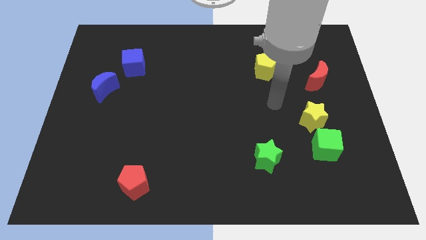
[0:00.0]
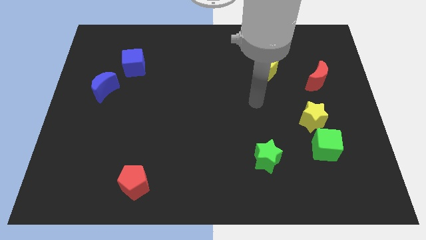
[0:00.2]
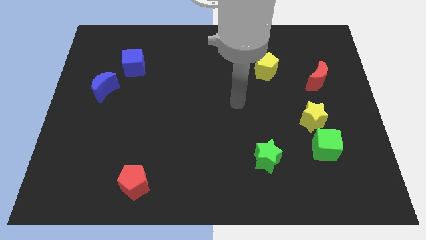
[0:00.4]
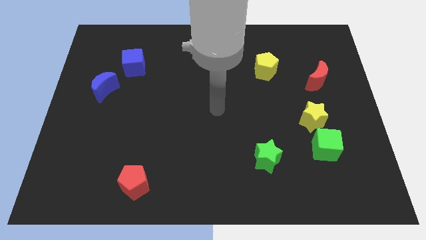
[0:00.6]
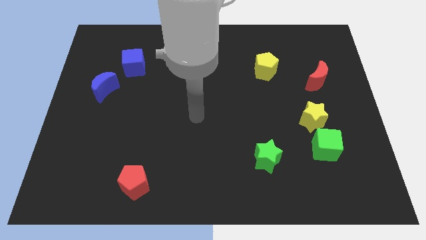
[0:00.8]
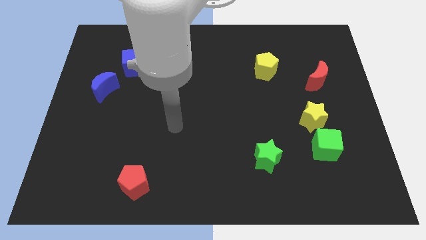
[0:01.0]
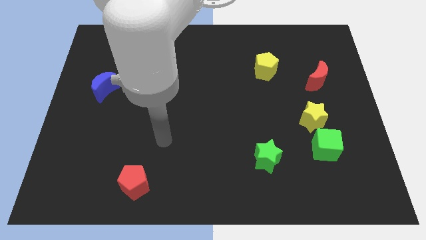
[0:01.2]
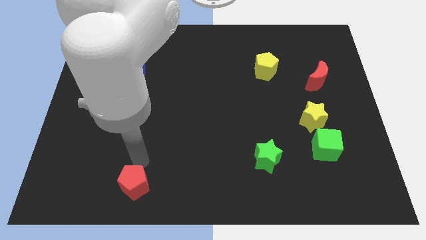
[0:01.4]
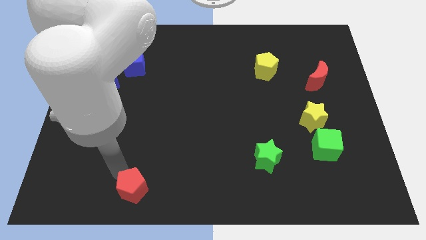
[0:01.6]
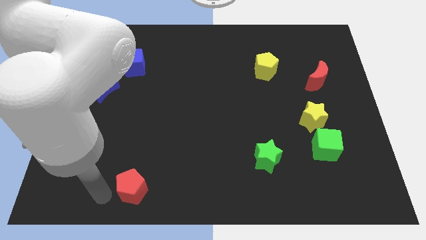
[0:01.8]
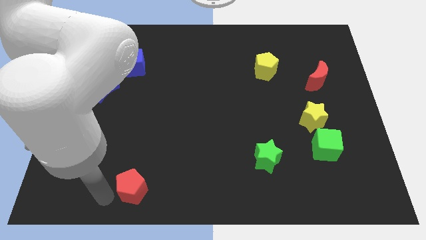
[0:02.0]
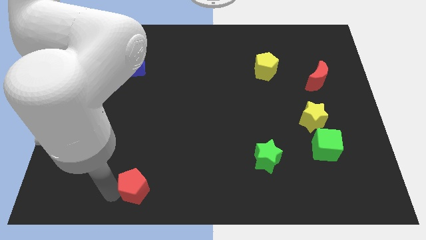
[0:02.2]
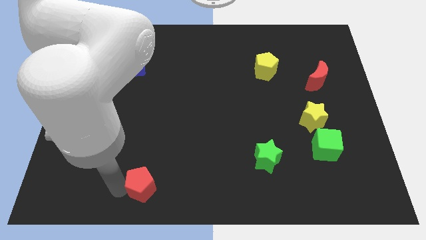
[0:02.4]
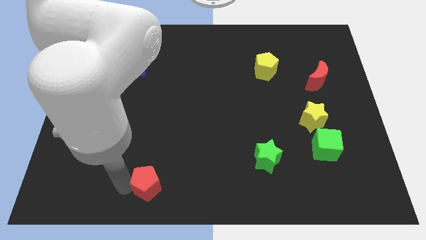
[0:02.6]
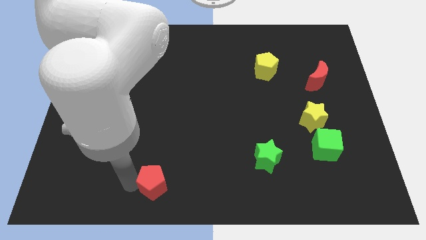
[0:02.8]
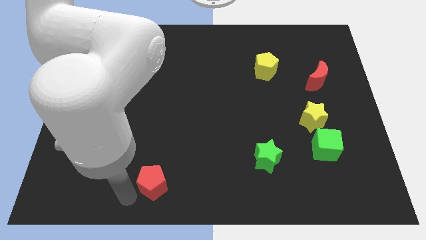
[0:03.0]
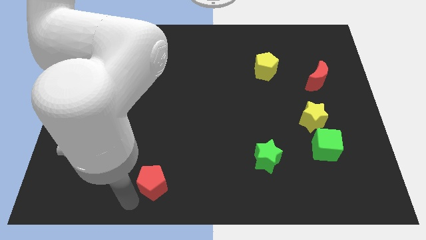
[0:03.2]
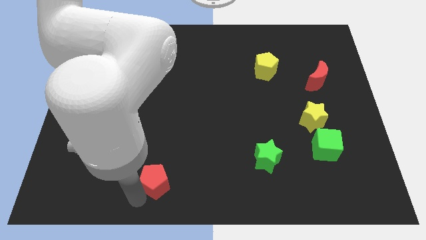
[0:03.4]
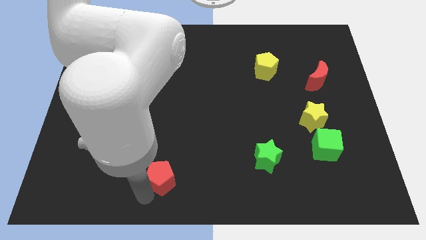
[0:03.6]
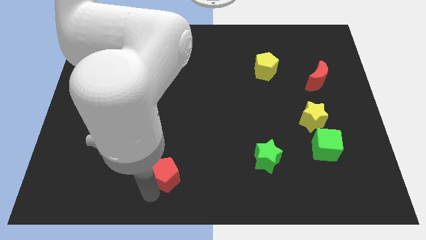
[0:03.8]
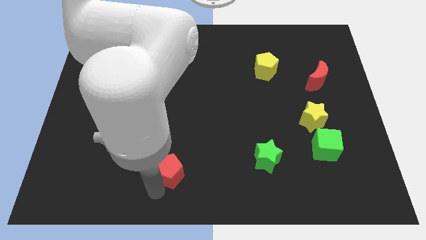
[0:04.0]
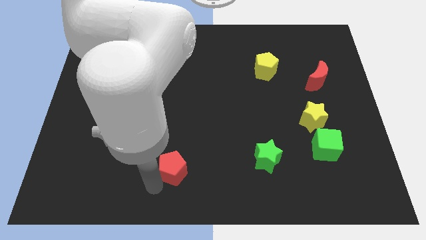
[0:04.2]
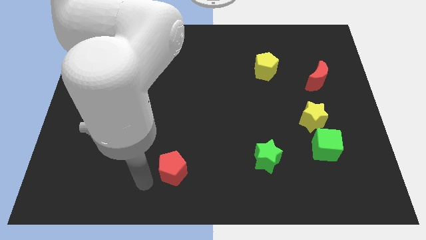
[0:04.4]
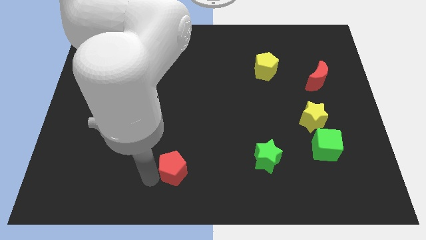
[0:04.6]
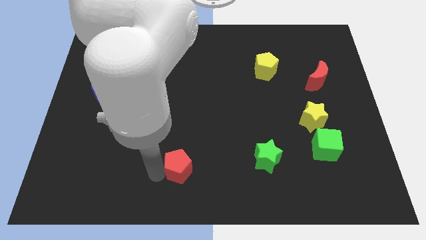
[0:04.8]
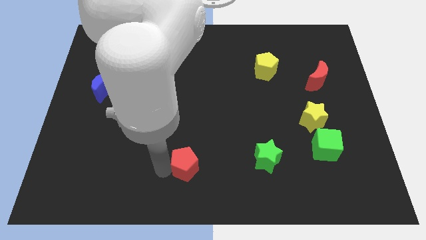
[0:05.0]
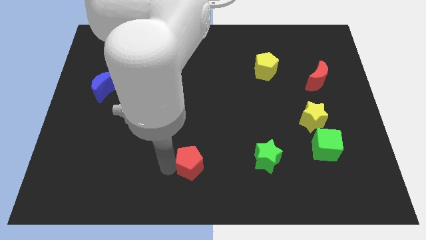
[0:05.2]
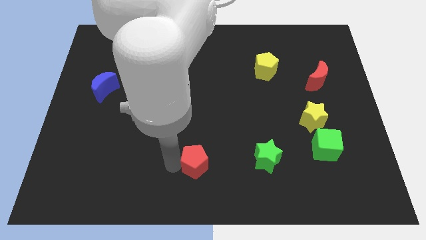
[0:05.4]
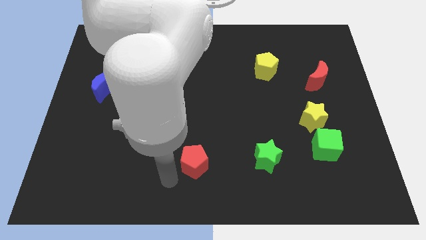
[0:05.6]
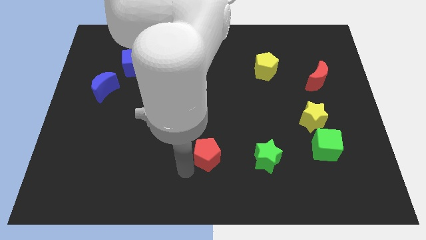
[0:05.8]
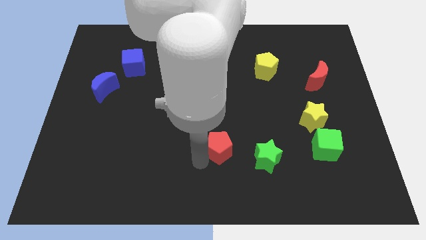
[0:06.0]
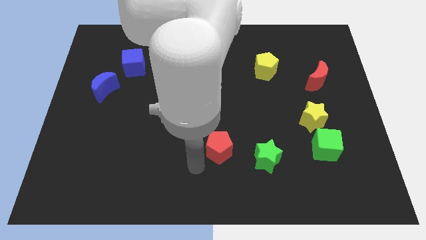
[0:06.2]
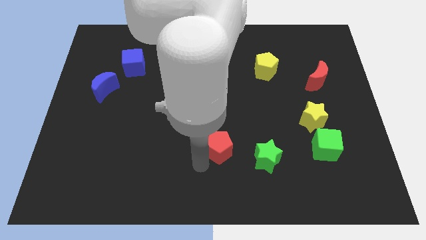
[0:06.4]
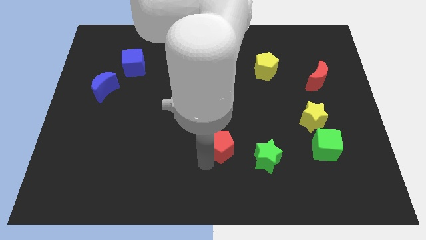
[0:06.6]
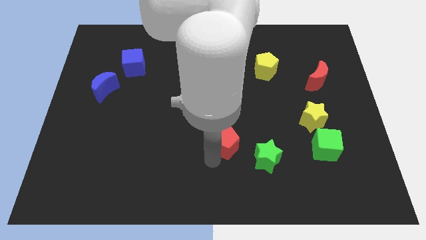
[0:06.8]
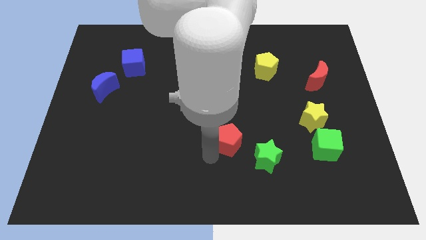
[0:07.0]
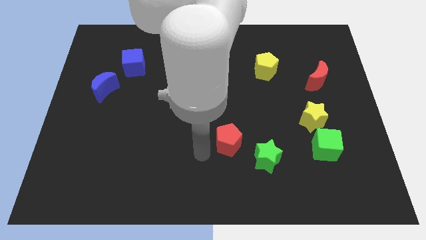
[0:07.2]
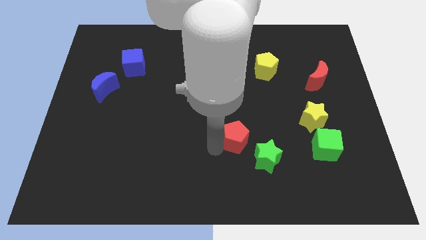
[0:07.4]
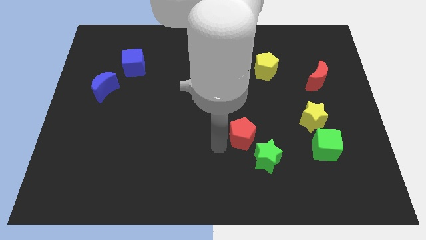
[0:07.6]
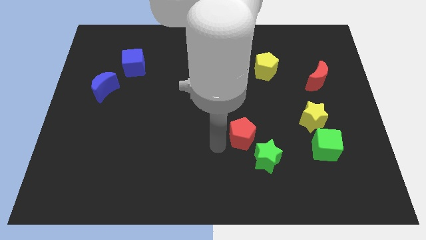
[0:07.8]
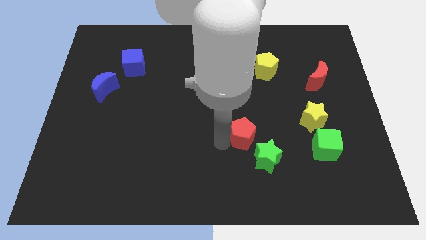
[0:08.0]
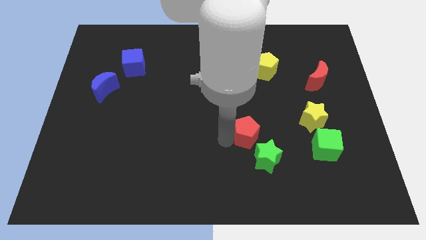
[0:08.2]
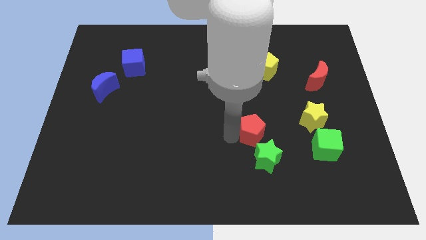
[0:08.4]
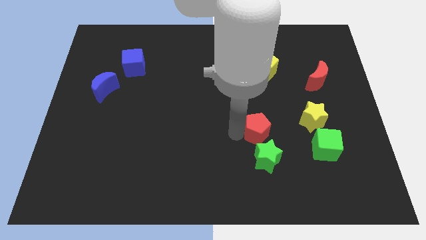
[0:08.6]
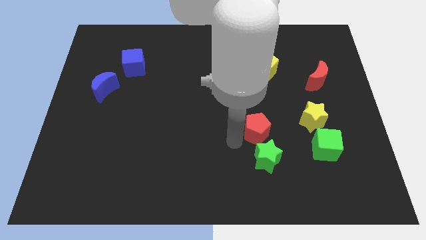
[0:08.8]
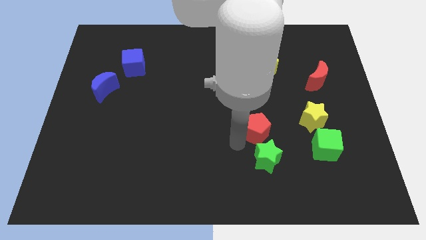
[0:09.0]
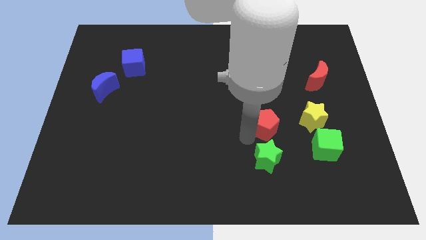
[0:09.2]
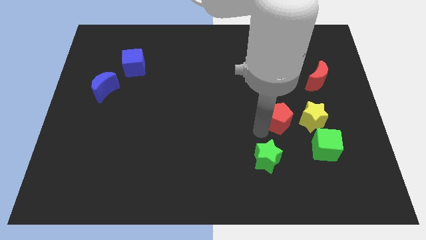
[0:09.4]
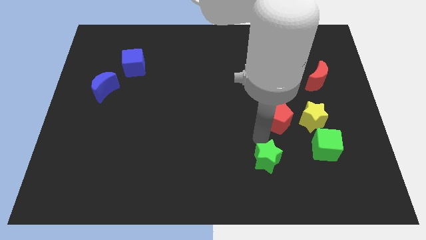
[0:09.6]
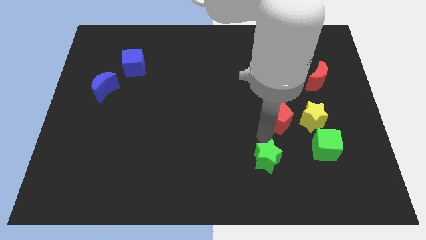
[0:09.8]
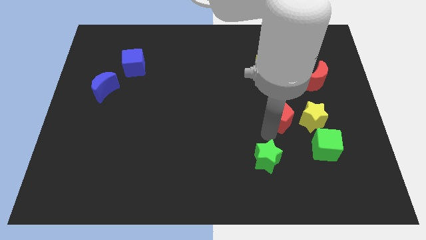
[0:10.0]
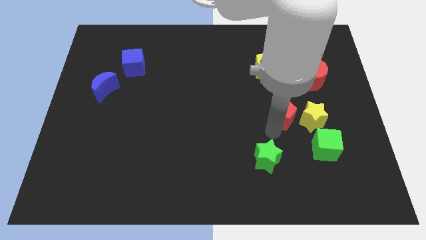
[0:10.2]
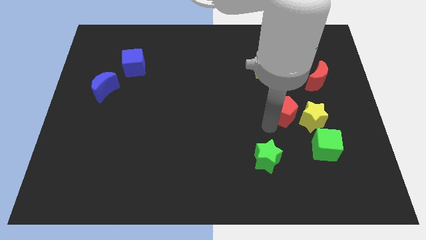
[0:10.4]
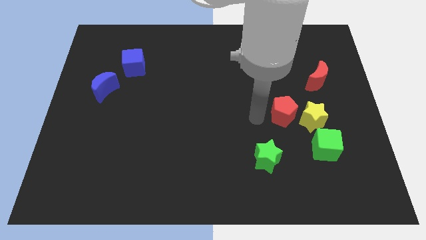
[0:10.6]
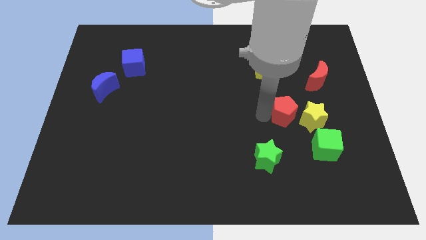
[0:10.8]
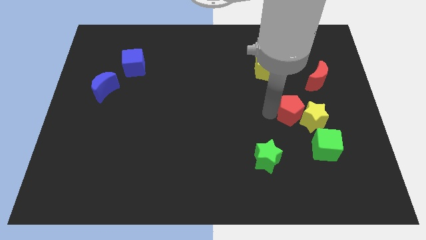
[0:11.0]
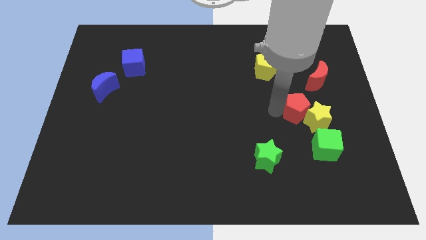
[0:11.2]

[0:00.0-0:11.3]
move the red pentagon to the top side of the green cube

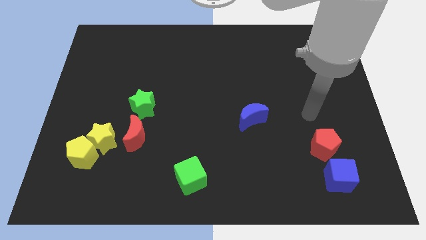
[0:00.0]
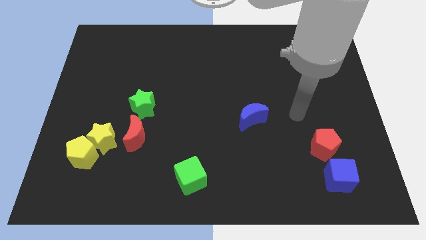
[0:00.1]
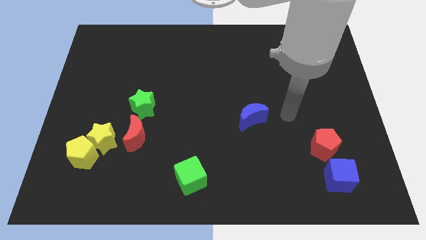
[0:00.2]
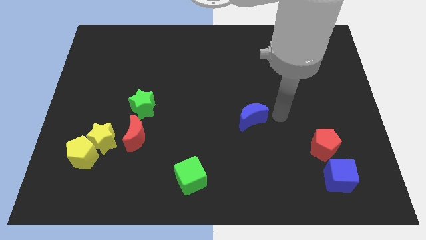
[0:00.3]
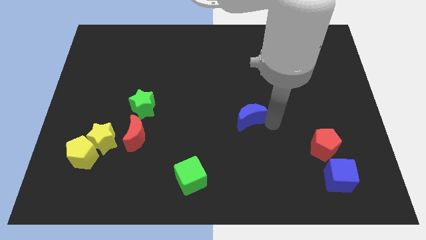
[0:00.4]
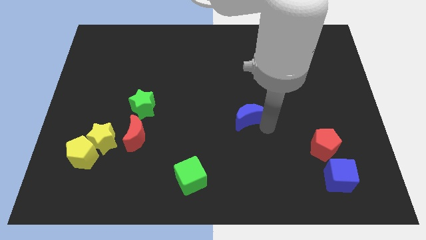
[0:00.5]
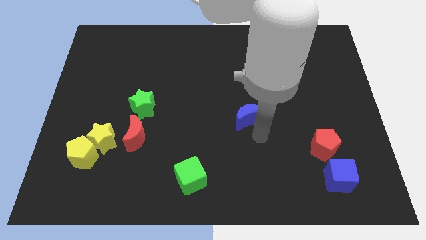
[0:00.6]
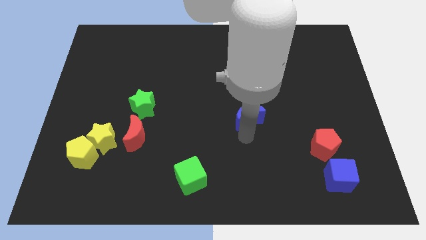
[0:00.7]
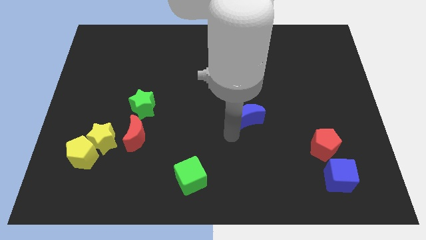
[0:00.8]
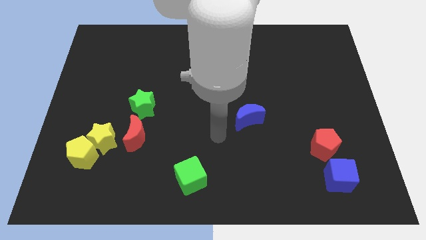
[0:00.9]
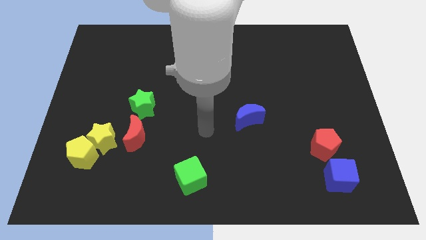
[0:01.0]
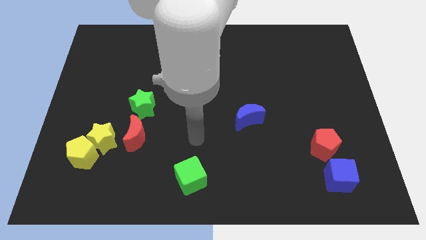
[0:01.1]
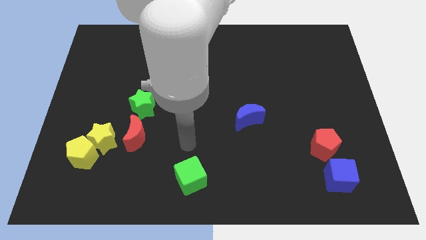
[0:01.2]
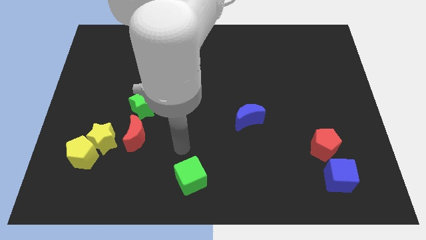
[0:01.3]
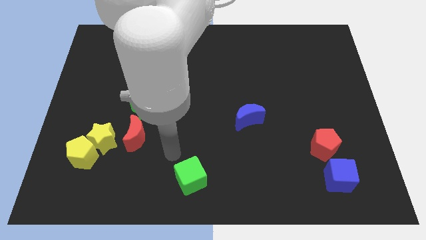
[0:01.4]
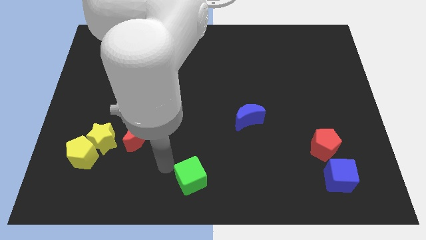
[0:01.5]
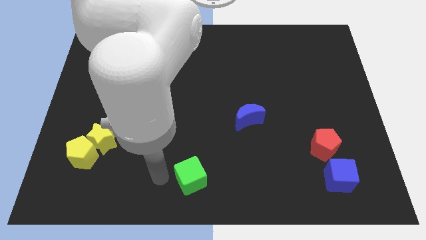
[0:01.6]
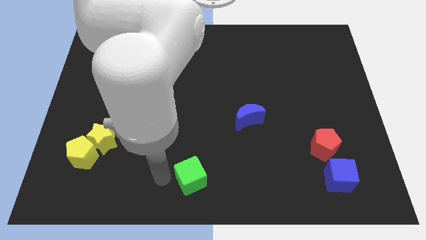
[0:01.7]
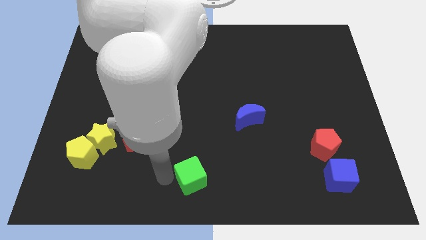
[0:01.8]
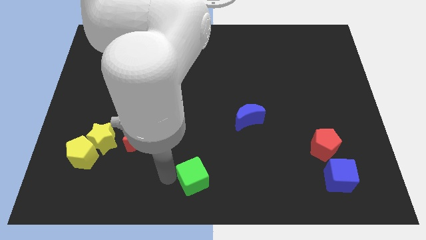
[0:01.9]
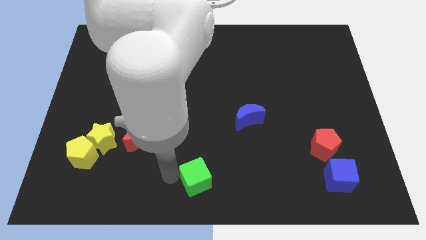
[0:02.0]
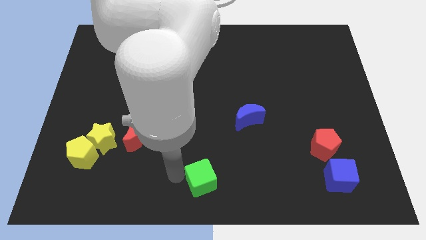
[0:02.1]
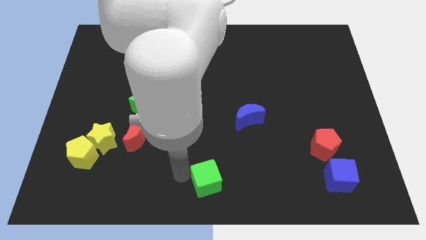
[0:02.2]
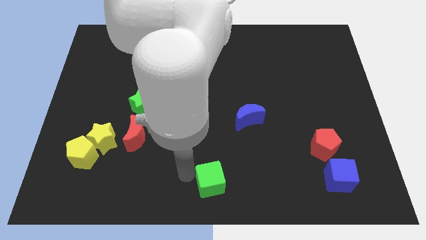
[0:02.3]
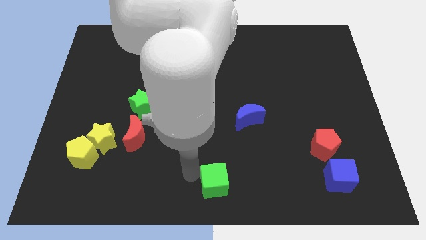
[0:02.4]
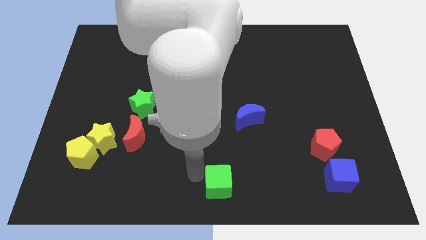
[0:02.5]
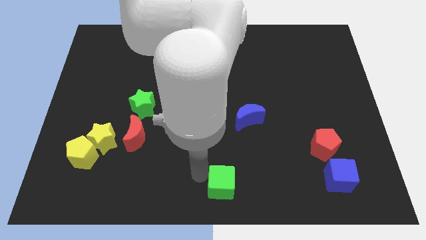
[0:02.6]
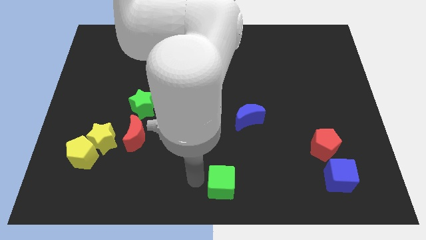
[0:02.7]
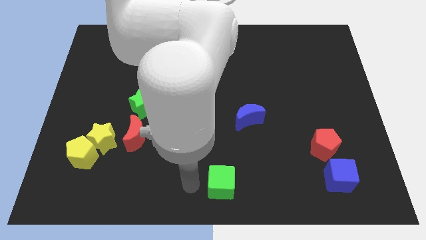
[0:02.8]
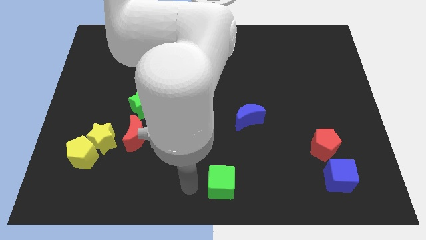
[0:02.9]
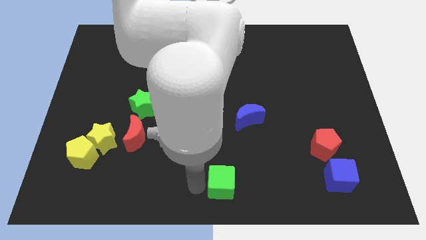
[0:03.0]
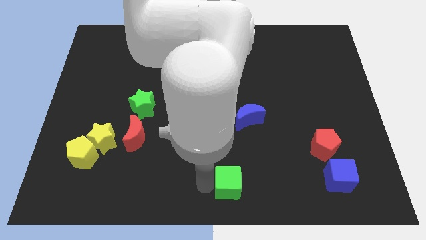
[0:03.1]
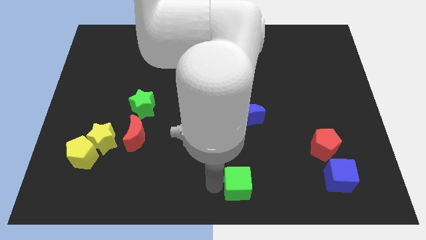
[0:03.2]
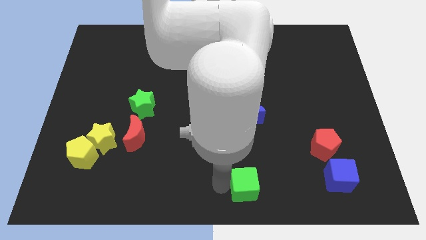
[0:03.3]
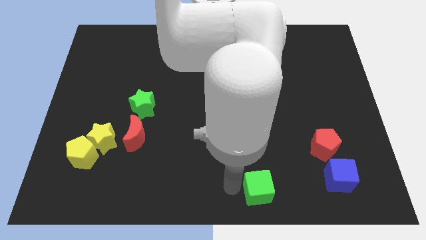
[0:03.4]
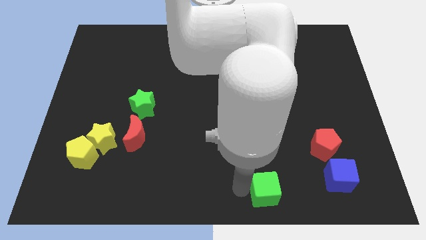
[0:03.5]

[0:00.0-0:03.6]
slide the green cube left of the blue cube
